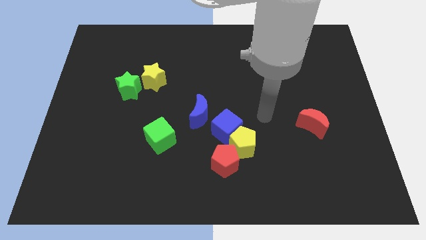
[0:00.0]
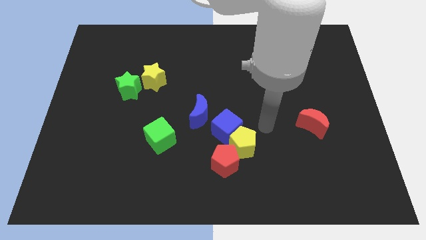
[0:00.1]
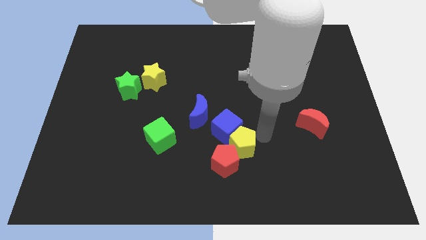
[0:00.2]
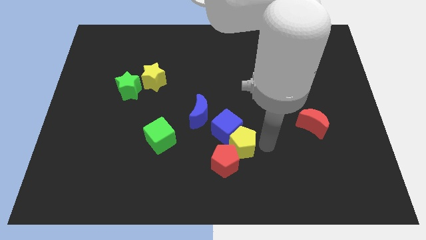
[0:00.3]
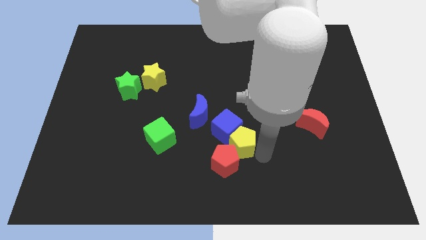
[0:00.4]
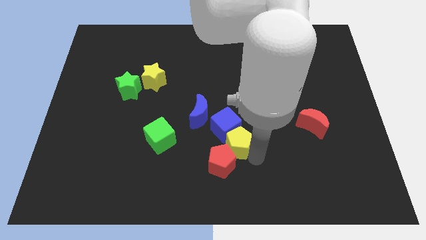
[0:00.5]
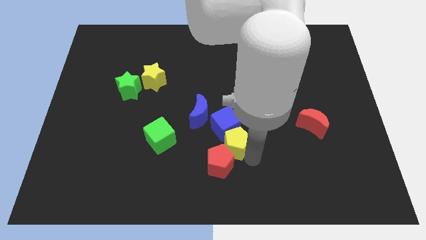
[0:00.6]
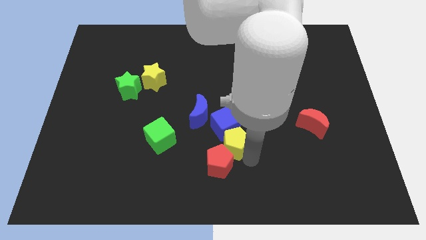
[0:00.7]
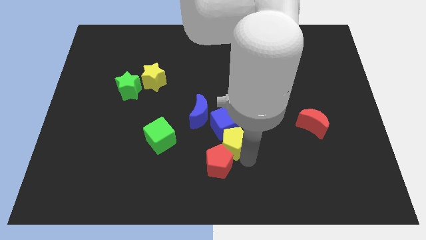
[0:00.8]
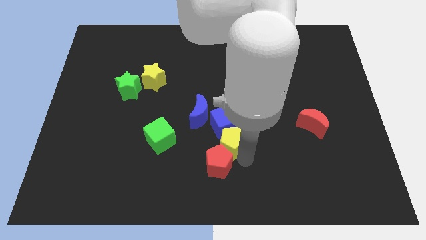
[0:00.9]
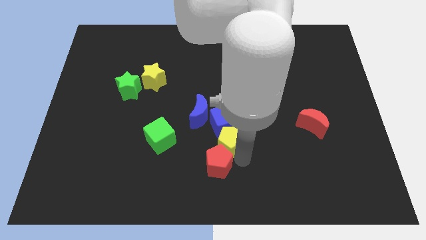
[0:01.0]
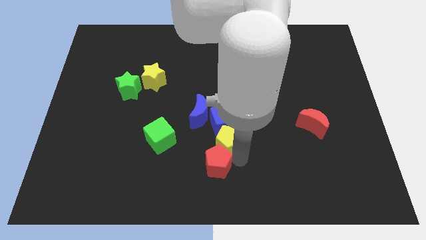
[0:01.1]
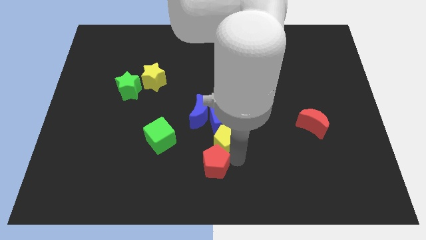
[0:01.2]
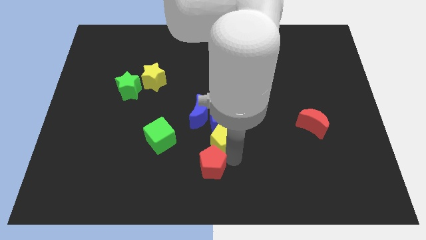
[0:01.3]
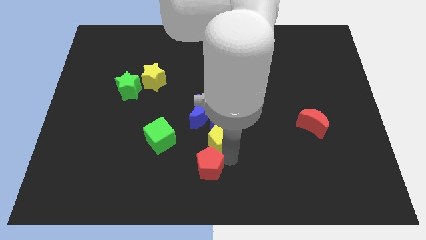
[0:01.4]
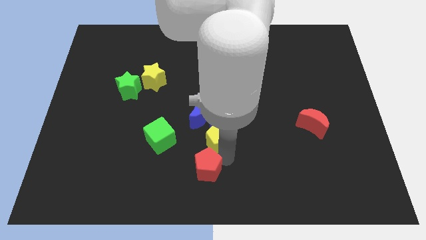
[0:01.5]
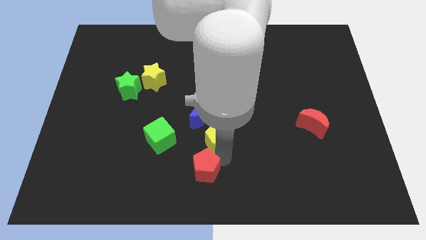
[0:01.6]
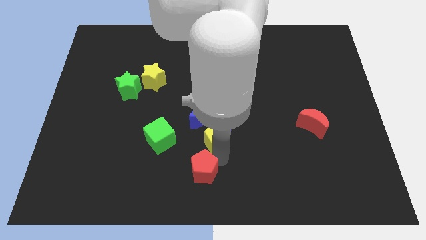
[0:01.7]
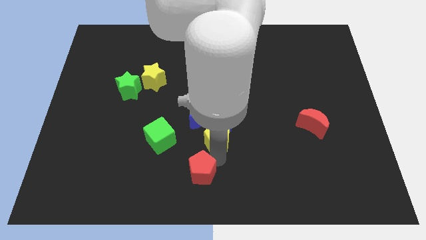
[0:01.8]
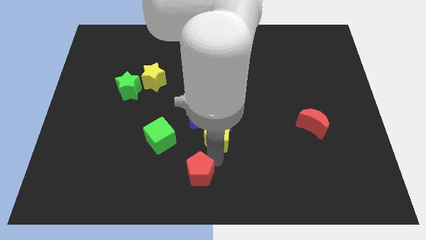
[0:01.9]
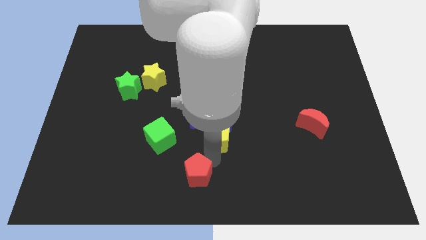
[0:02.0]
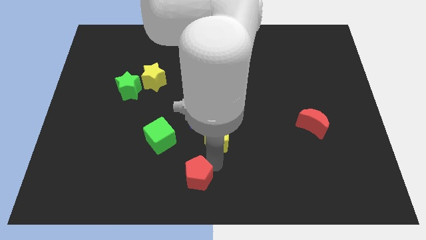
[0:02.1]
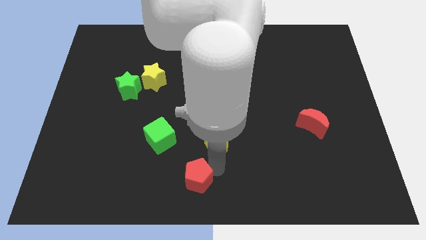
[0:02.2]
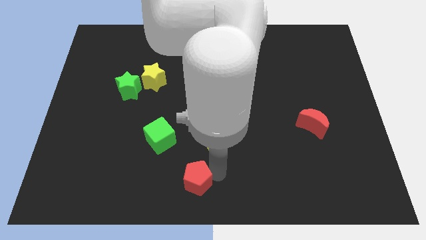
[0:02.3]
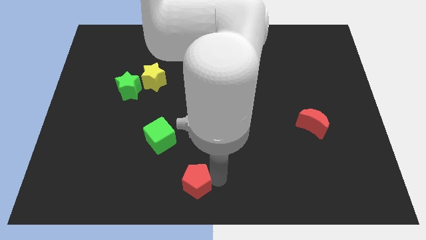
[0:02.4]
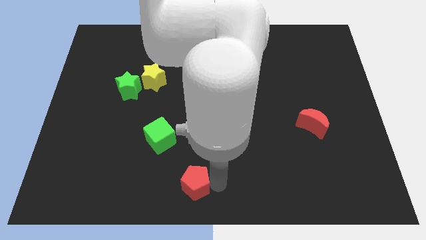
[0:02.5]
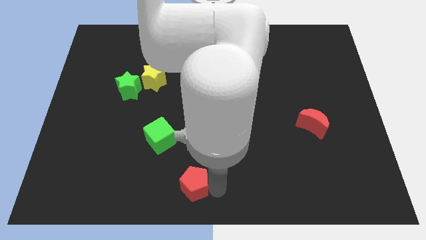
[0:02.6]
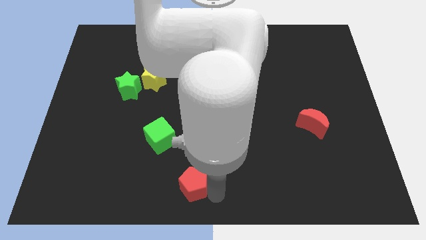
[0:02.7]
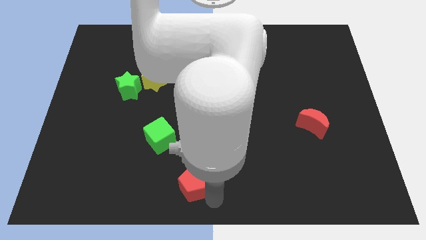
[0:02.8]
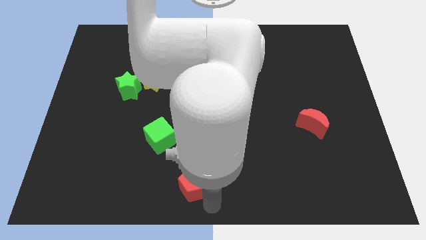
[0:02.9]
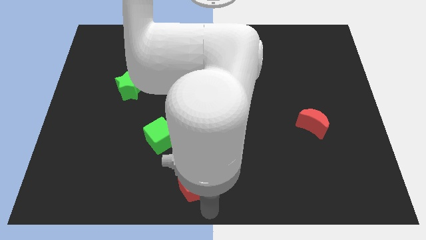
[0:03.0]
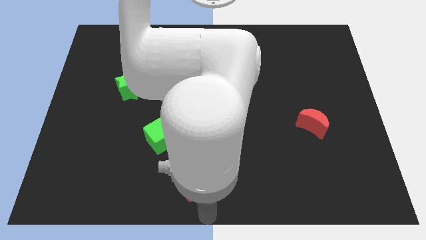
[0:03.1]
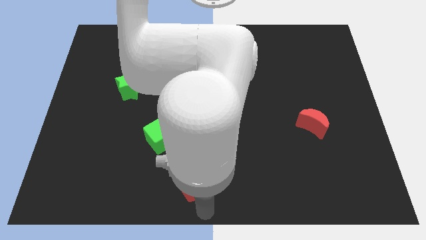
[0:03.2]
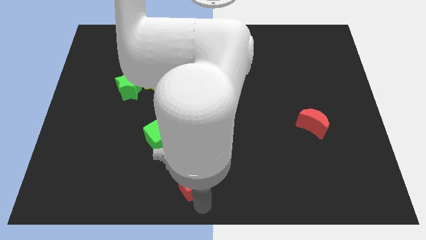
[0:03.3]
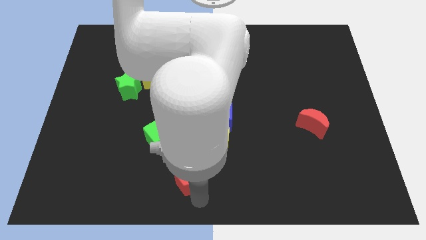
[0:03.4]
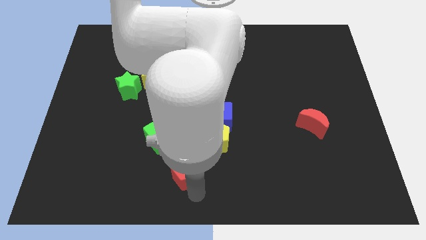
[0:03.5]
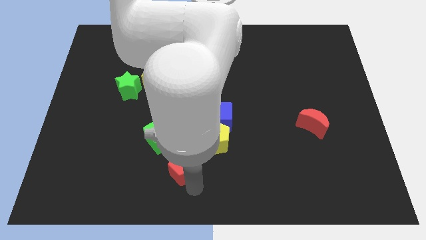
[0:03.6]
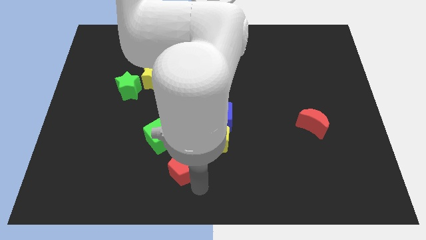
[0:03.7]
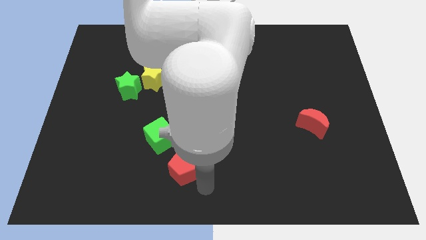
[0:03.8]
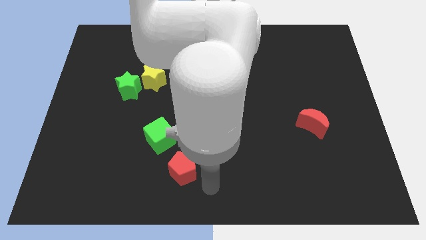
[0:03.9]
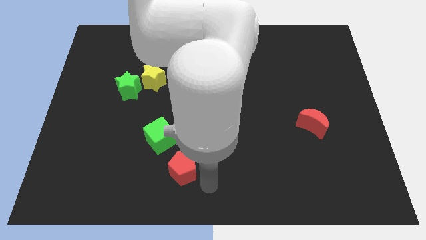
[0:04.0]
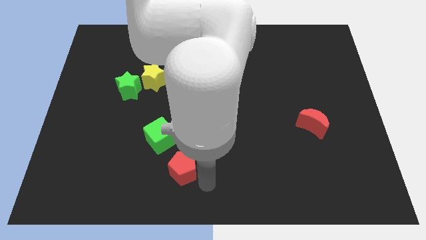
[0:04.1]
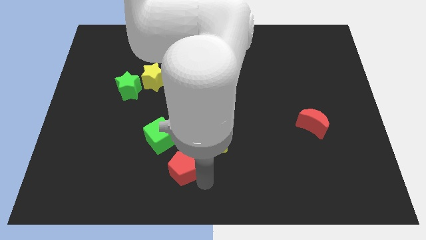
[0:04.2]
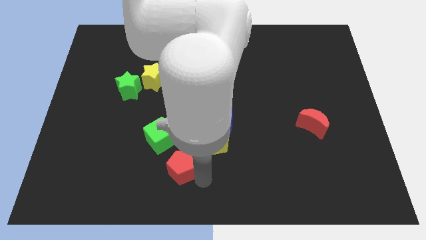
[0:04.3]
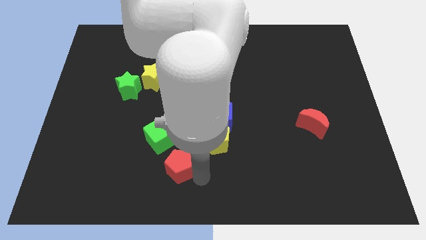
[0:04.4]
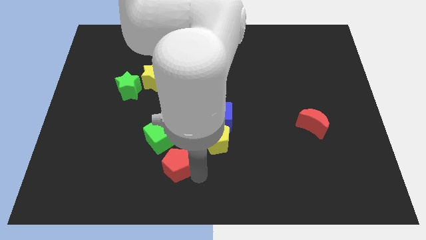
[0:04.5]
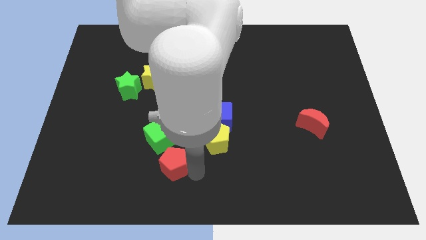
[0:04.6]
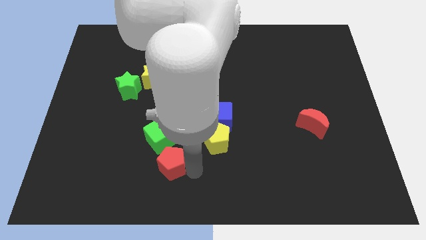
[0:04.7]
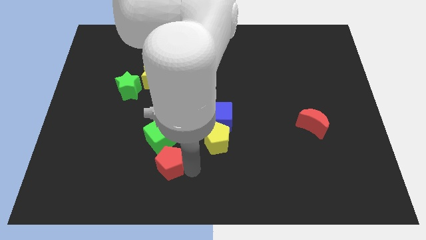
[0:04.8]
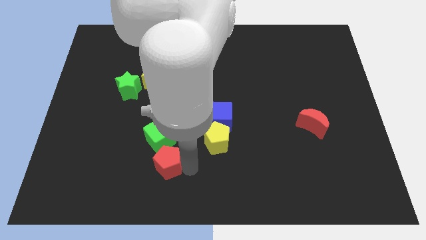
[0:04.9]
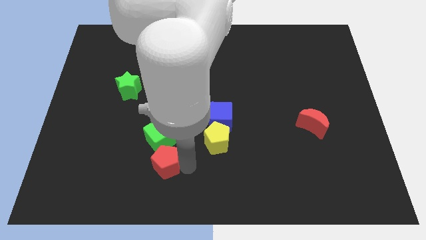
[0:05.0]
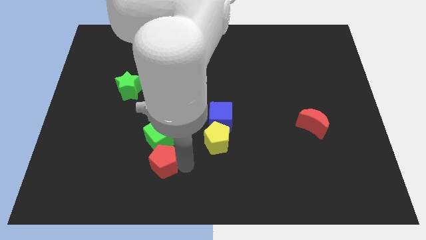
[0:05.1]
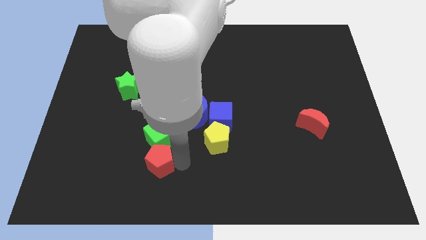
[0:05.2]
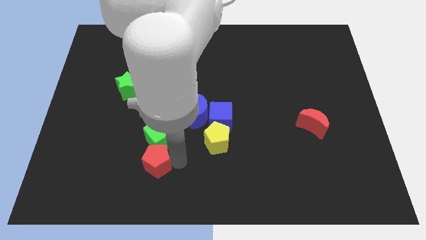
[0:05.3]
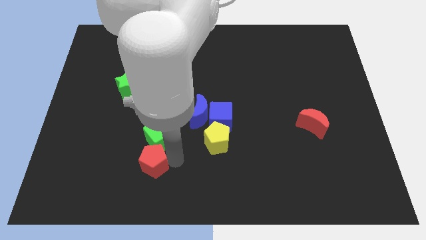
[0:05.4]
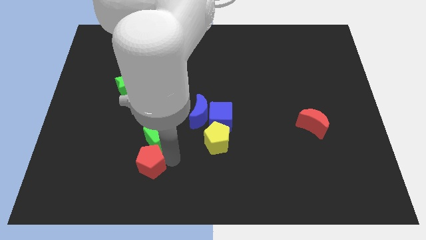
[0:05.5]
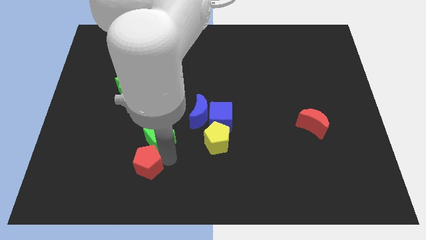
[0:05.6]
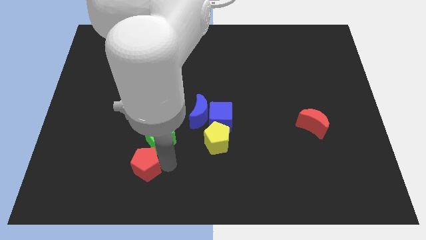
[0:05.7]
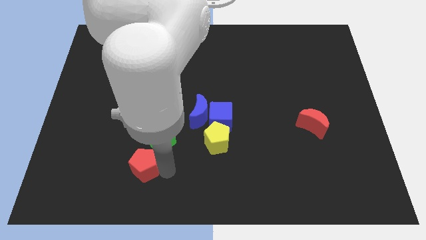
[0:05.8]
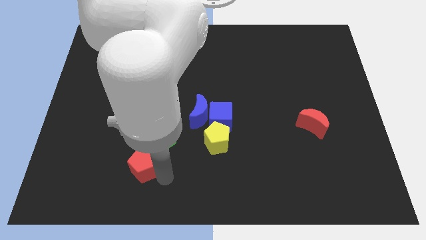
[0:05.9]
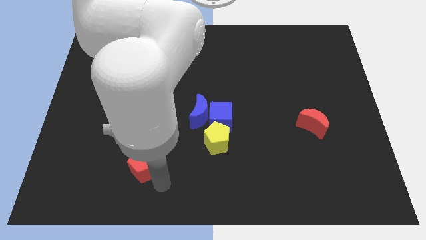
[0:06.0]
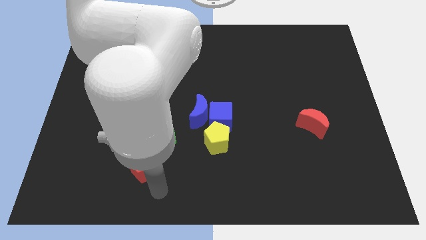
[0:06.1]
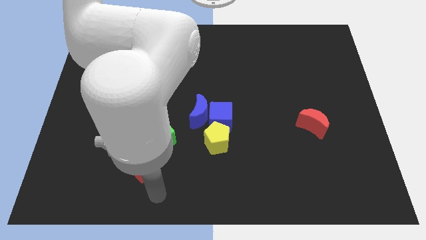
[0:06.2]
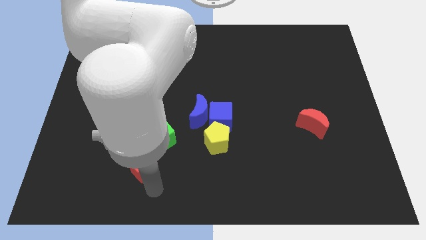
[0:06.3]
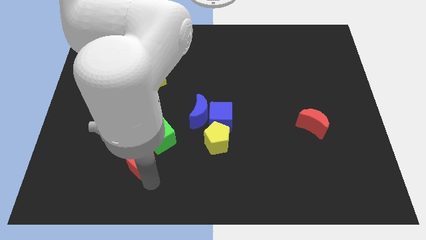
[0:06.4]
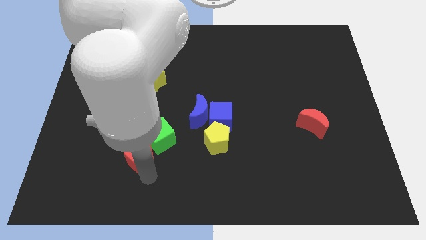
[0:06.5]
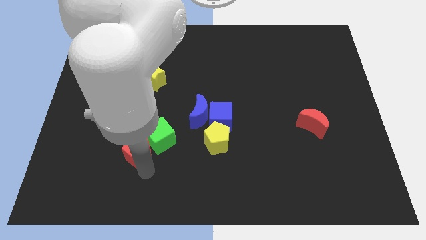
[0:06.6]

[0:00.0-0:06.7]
move the red pentagon to the left of the green cube
